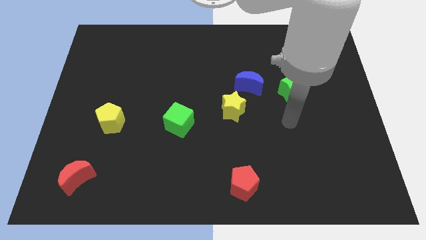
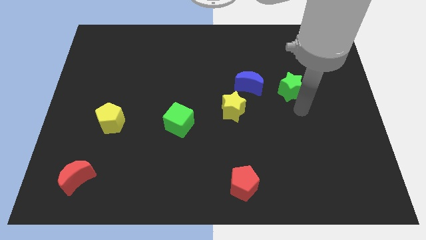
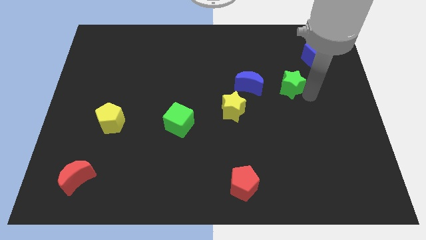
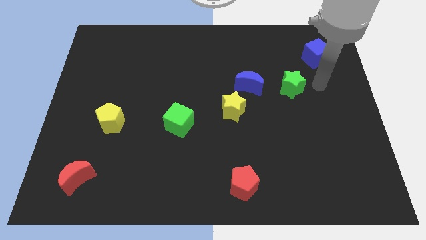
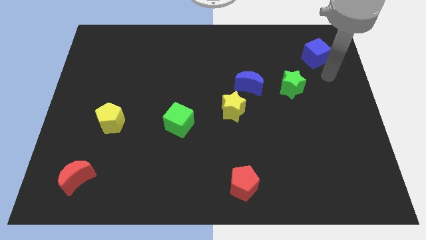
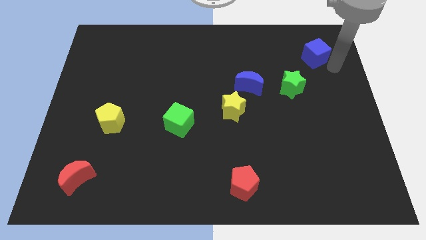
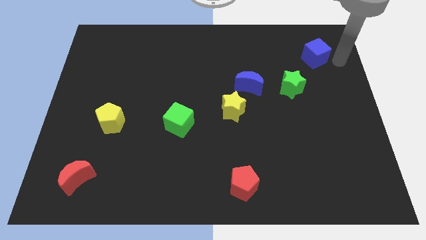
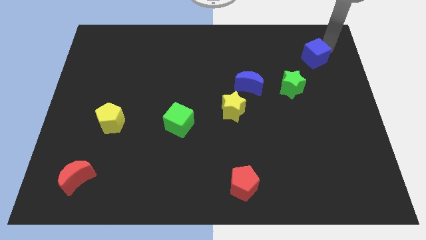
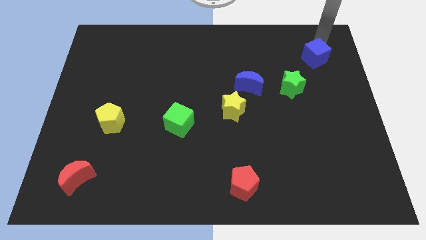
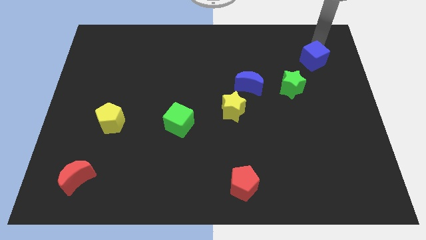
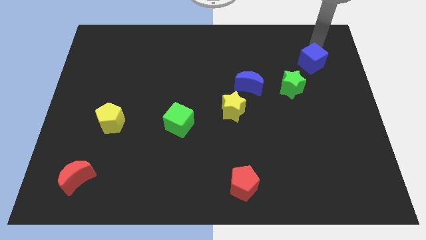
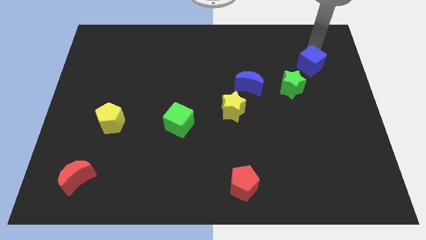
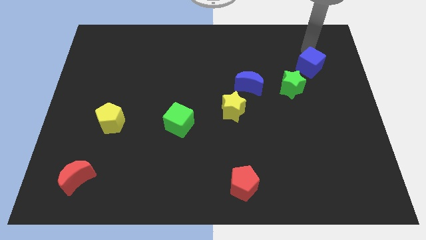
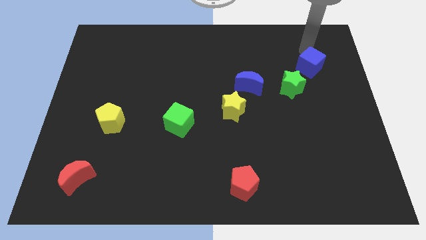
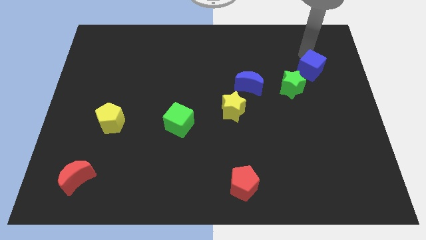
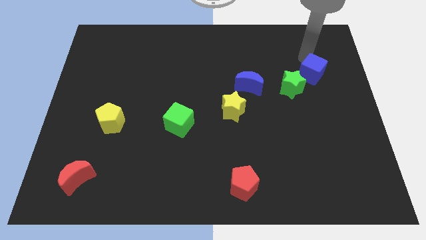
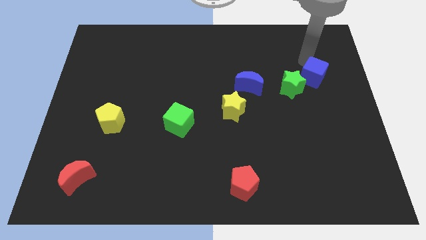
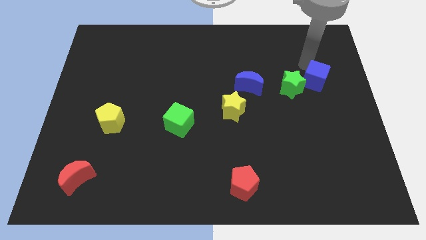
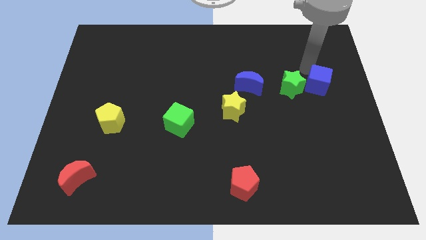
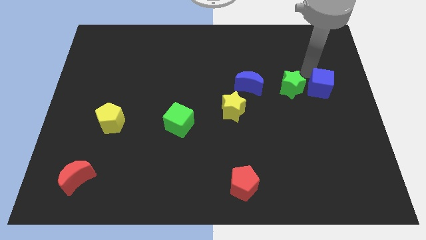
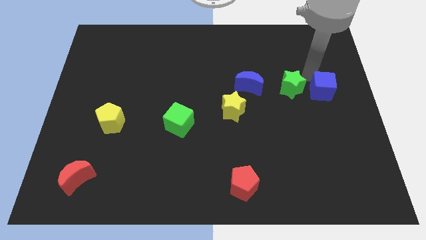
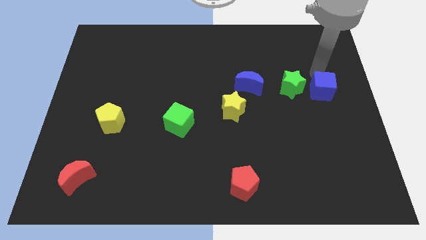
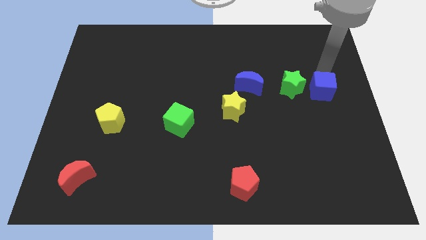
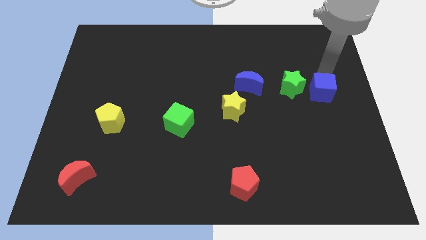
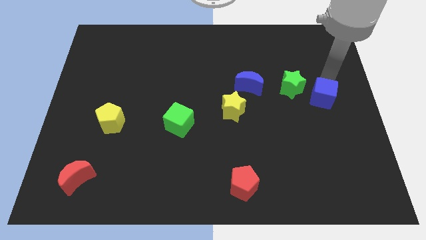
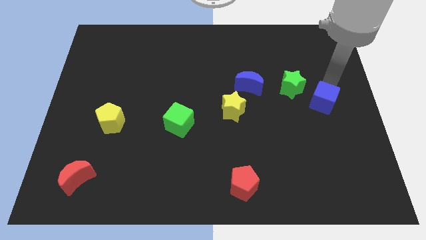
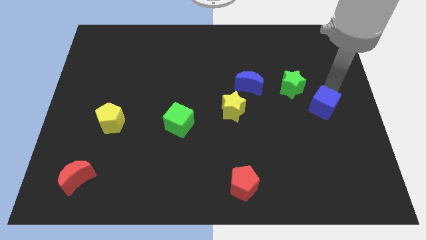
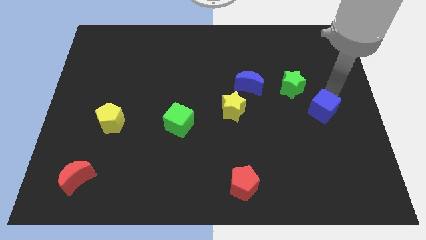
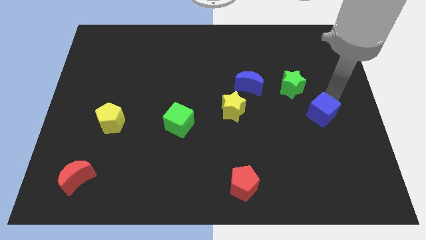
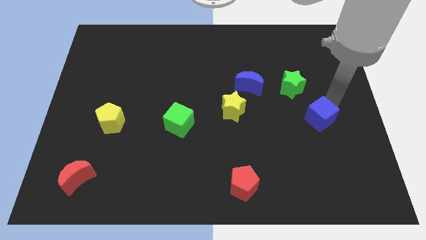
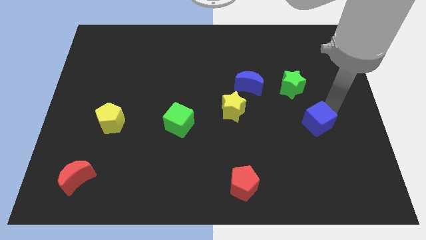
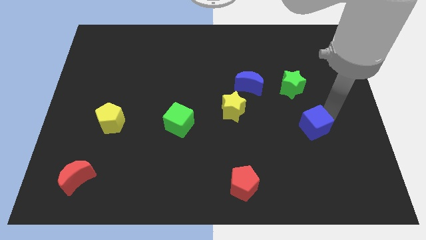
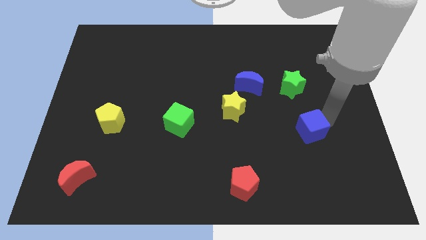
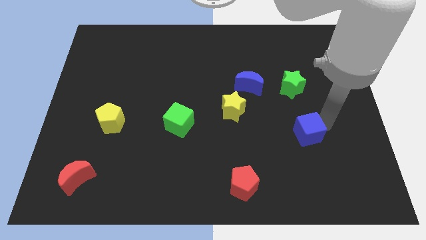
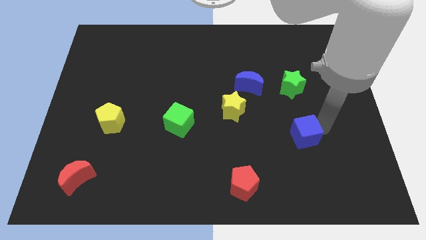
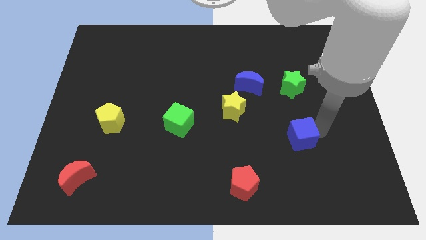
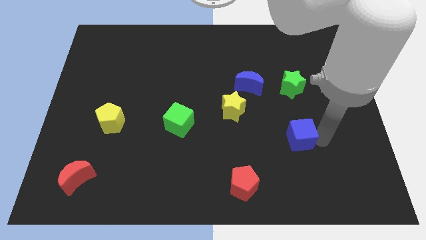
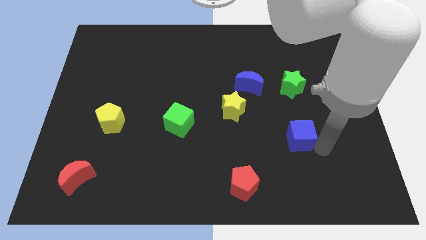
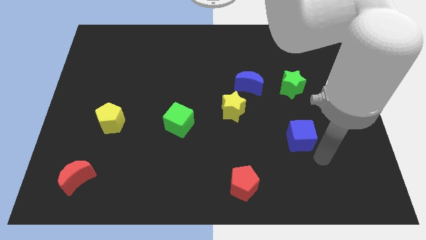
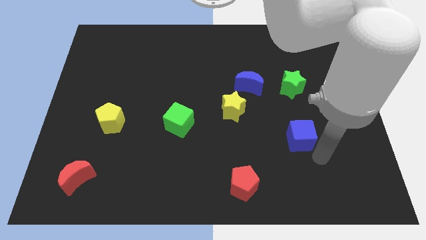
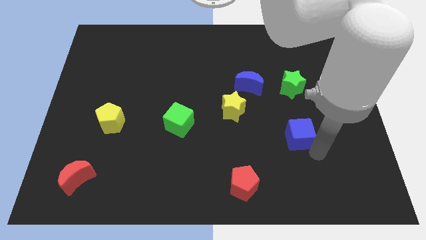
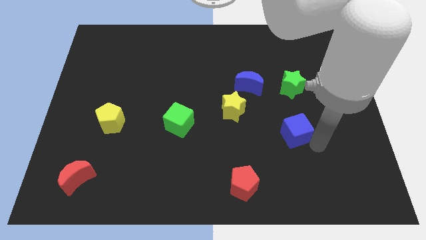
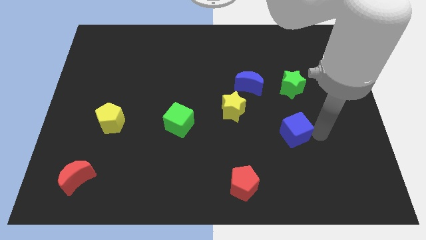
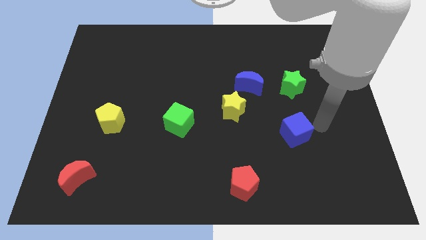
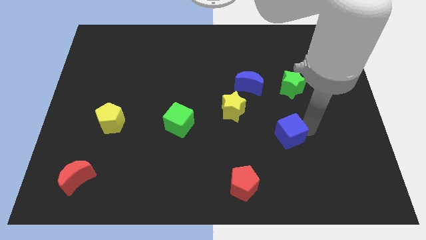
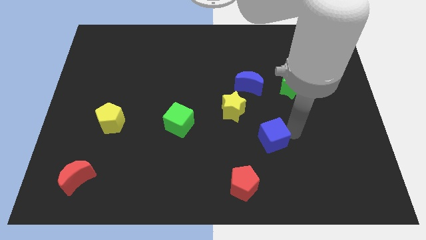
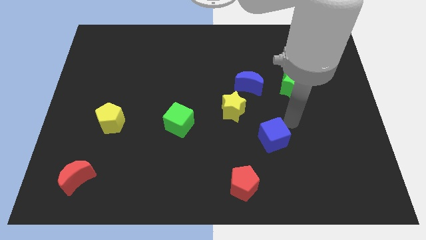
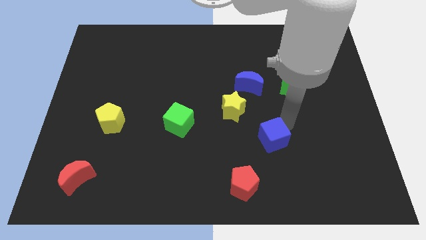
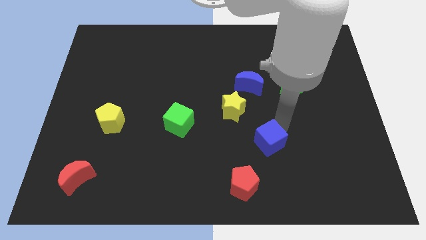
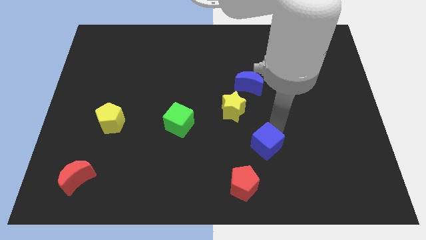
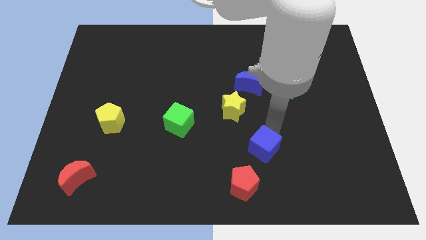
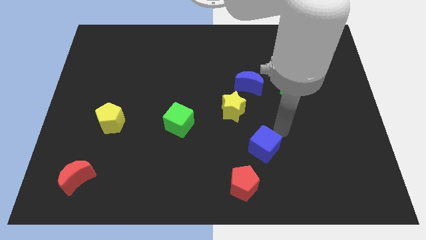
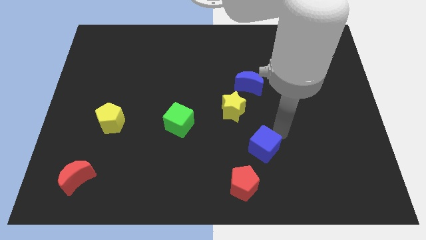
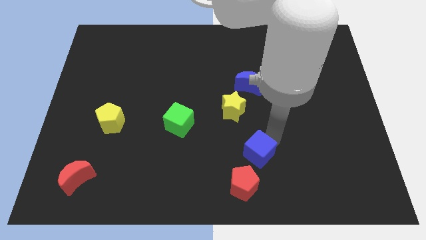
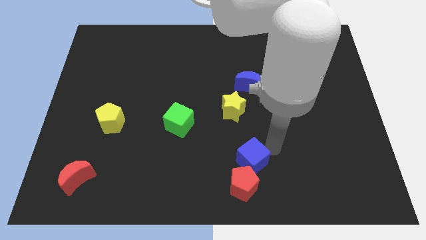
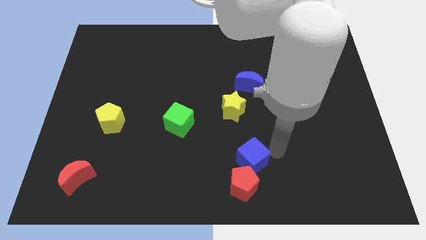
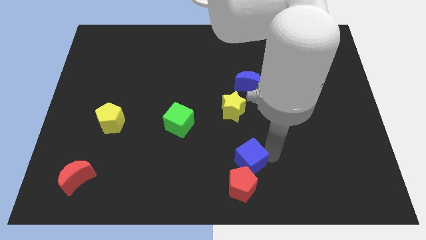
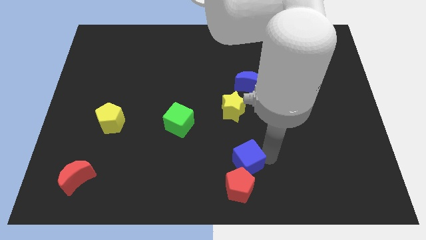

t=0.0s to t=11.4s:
slide the blue cube to the bottom
